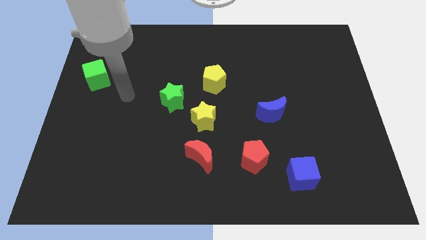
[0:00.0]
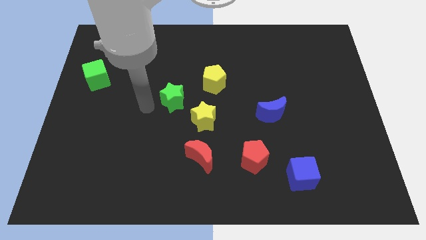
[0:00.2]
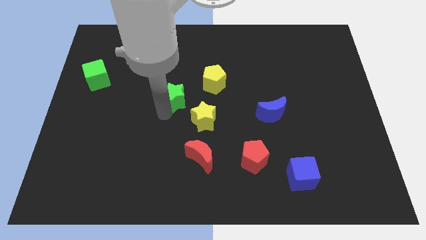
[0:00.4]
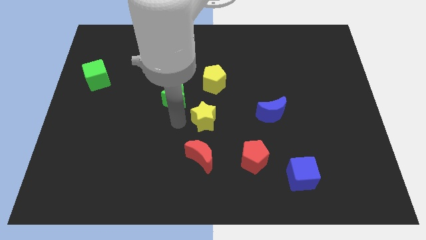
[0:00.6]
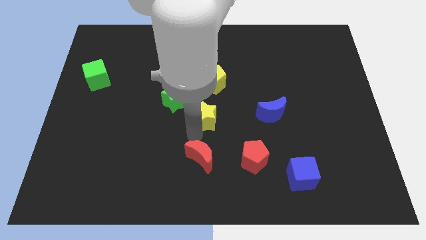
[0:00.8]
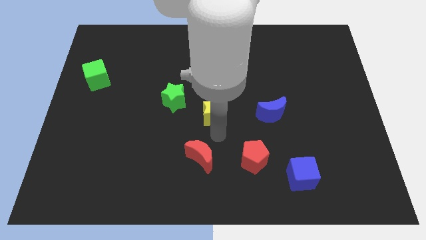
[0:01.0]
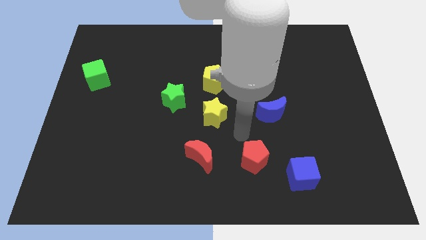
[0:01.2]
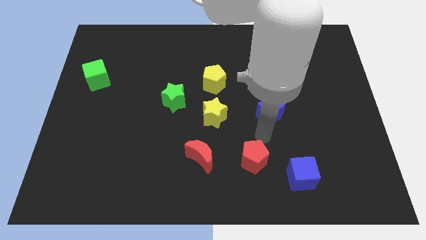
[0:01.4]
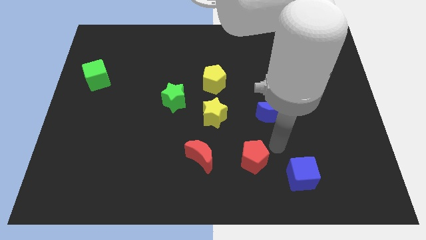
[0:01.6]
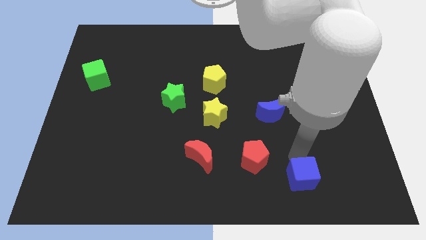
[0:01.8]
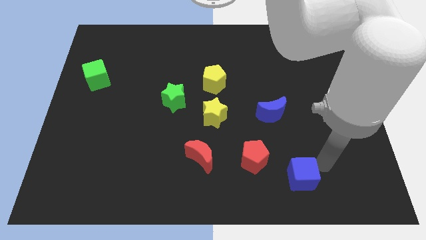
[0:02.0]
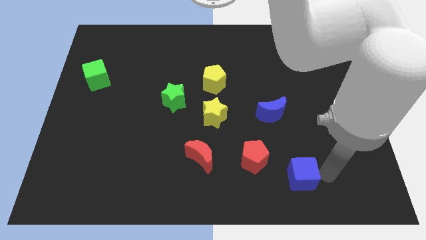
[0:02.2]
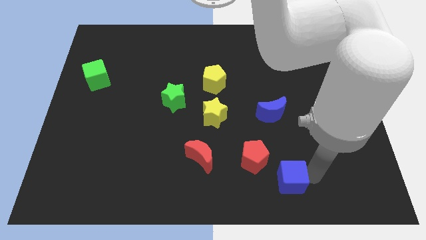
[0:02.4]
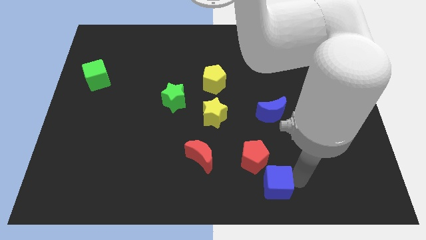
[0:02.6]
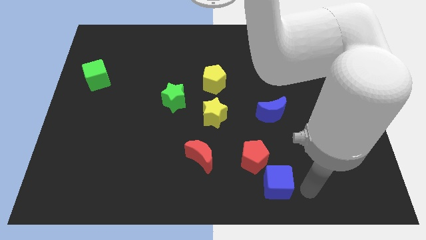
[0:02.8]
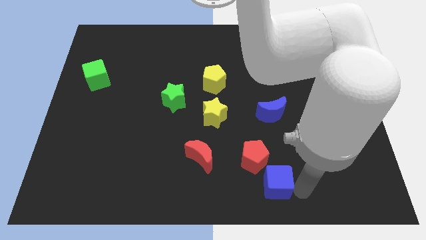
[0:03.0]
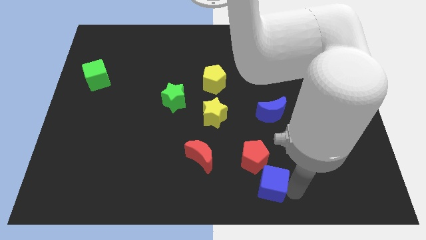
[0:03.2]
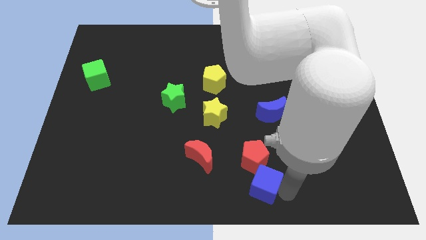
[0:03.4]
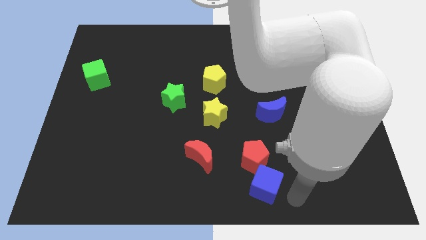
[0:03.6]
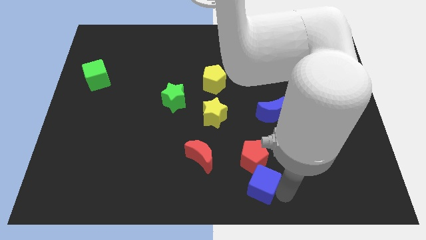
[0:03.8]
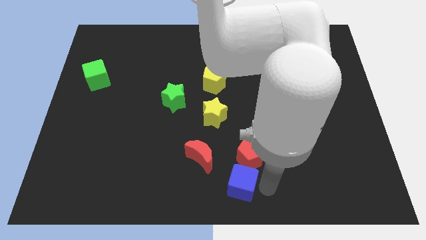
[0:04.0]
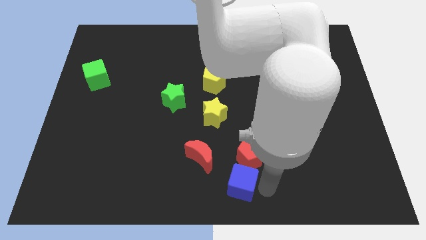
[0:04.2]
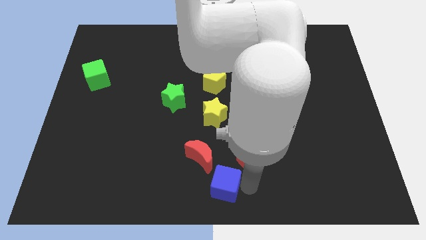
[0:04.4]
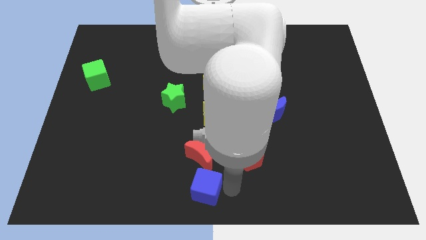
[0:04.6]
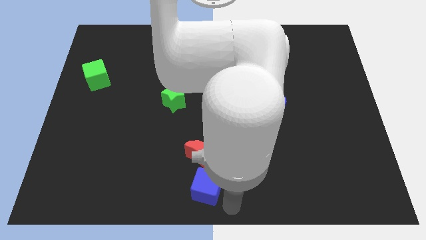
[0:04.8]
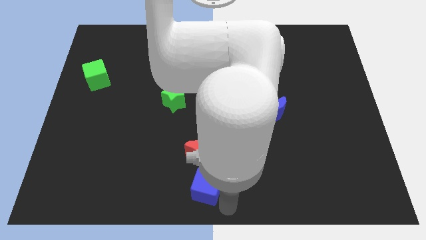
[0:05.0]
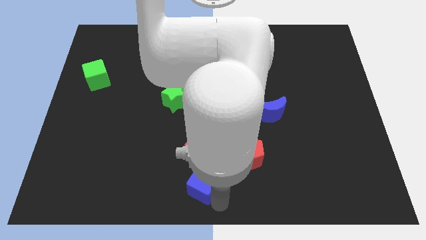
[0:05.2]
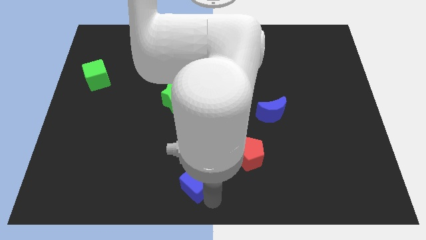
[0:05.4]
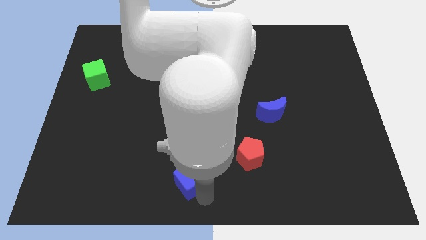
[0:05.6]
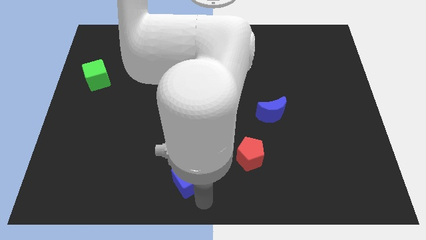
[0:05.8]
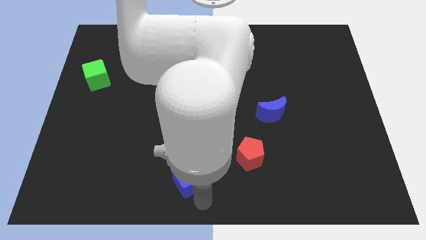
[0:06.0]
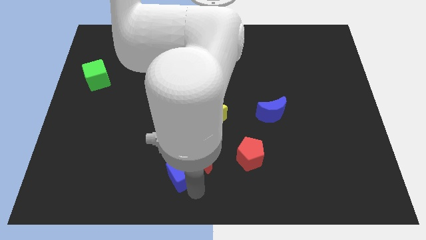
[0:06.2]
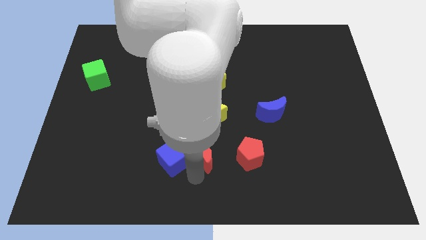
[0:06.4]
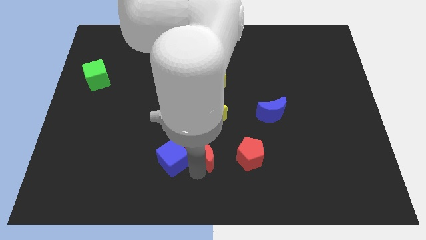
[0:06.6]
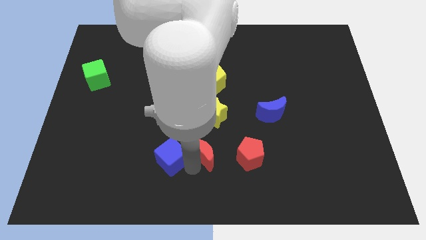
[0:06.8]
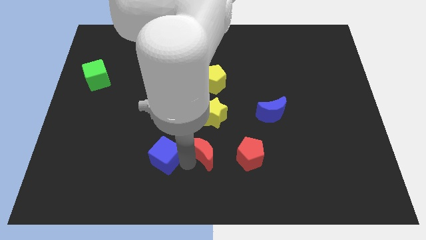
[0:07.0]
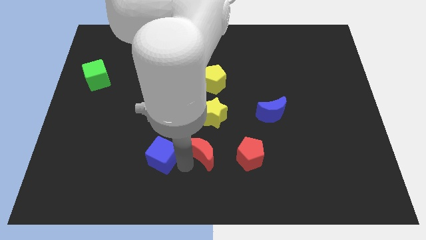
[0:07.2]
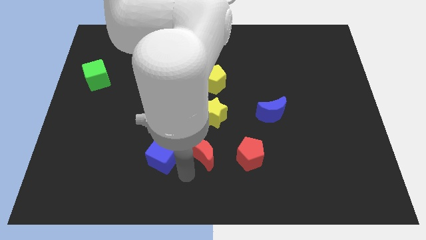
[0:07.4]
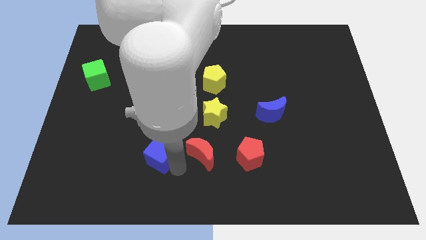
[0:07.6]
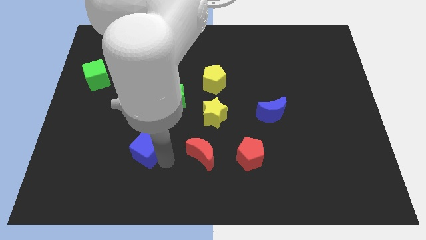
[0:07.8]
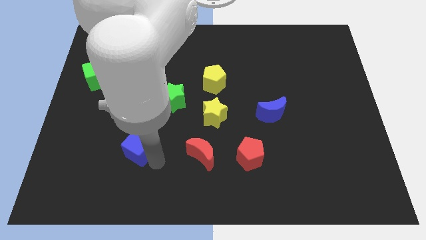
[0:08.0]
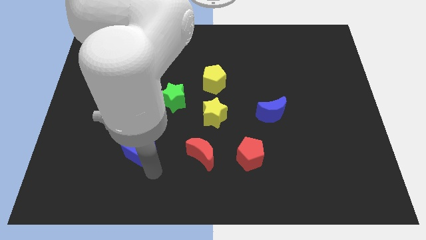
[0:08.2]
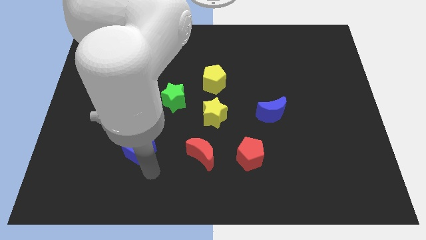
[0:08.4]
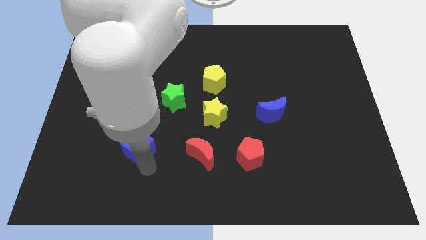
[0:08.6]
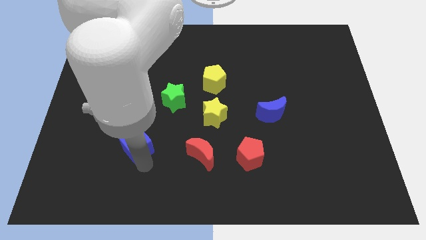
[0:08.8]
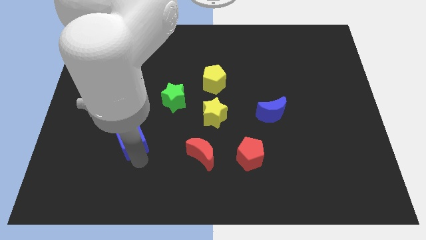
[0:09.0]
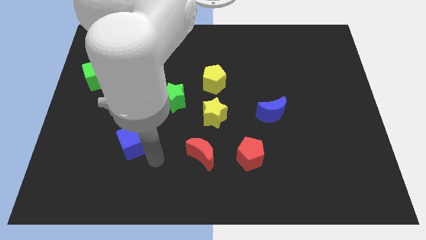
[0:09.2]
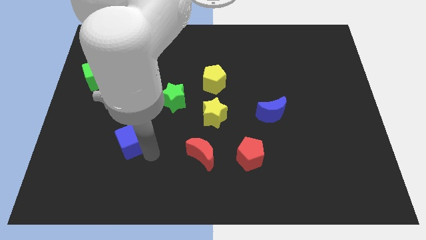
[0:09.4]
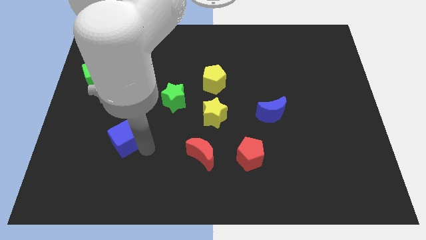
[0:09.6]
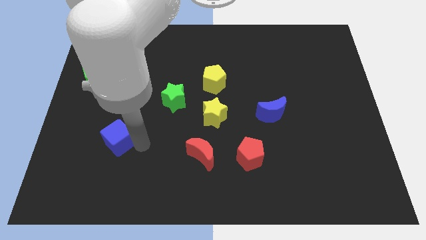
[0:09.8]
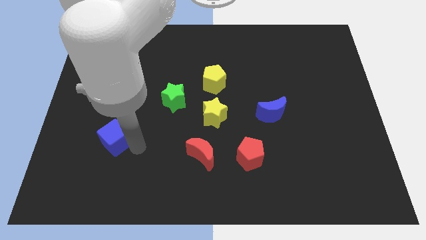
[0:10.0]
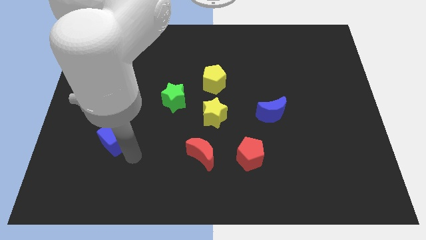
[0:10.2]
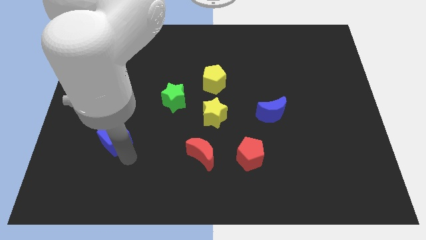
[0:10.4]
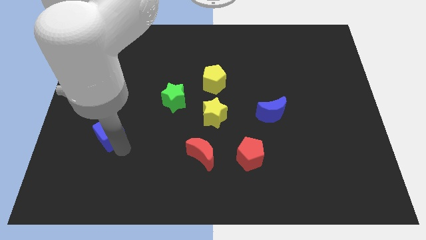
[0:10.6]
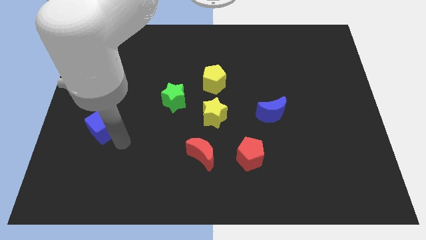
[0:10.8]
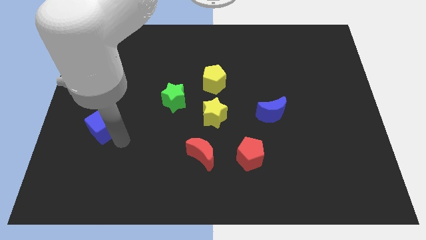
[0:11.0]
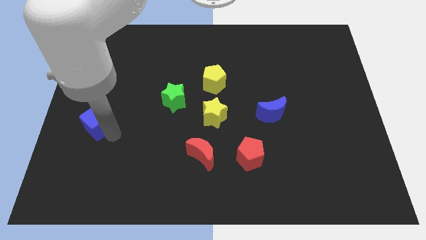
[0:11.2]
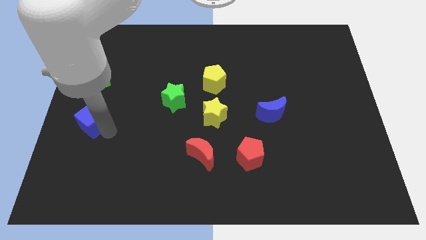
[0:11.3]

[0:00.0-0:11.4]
move the blue cube to the center left

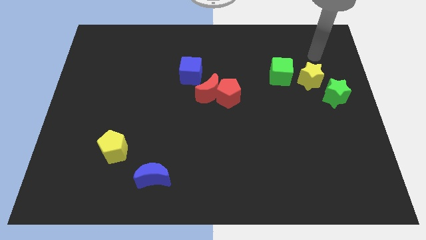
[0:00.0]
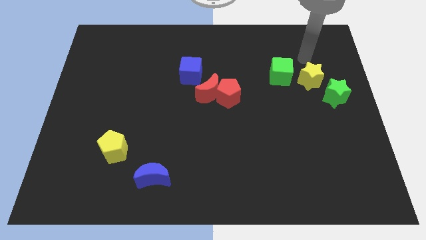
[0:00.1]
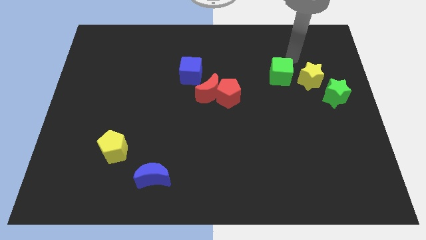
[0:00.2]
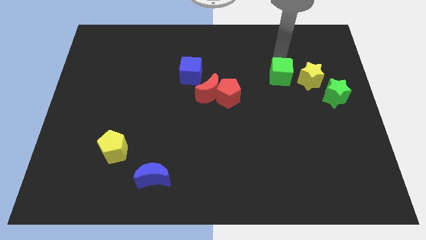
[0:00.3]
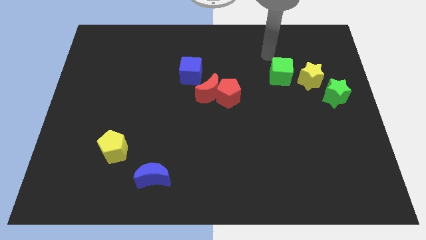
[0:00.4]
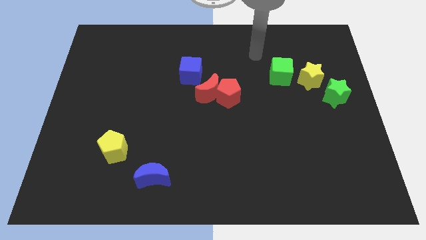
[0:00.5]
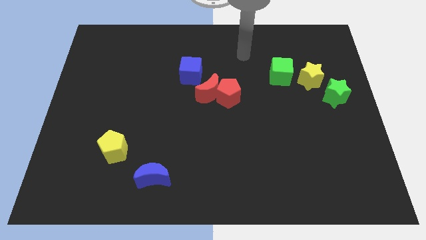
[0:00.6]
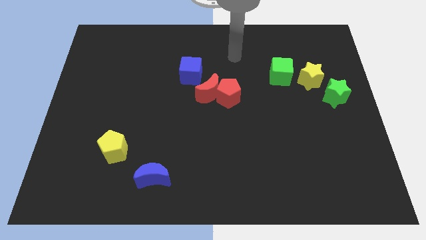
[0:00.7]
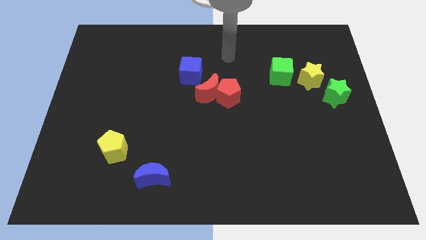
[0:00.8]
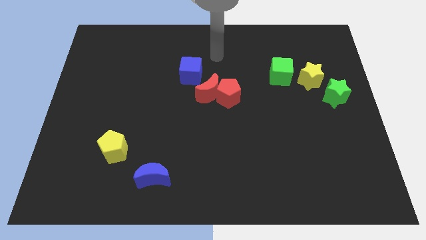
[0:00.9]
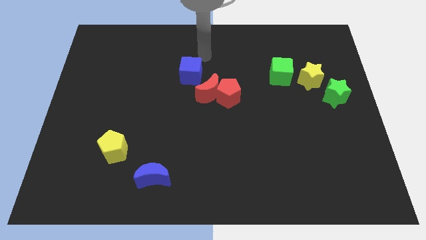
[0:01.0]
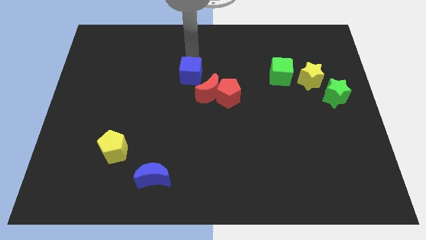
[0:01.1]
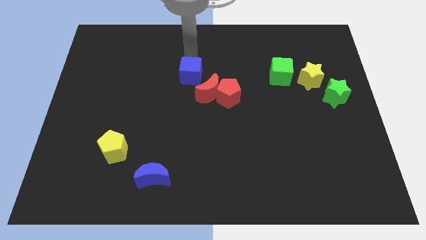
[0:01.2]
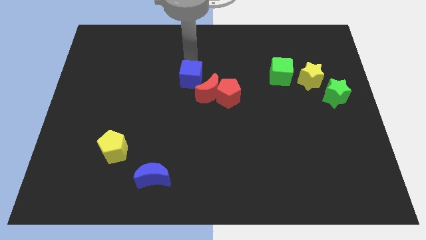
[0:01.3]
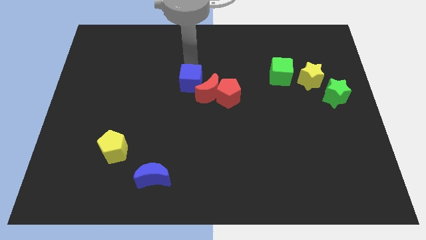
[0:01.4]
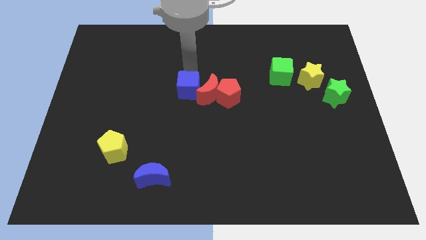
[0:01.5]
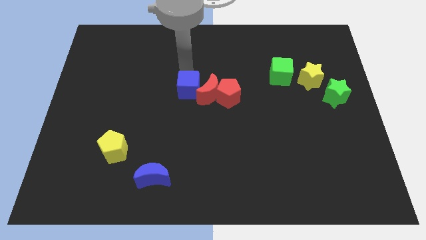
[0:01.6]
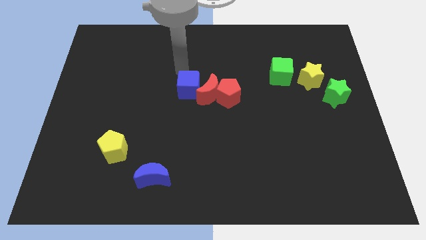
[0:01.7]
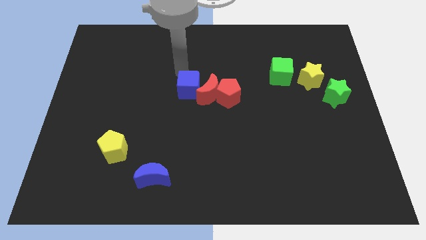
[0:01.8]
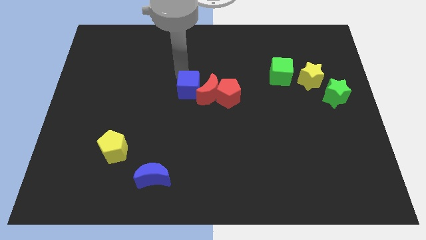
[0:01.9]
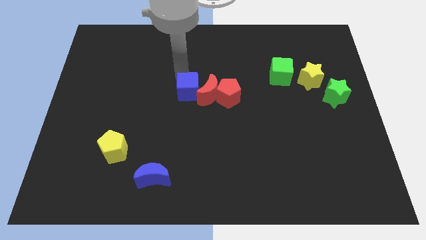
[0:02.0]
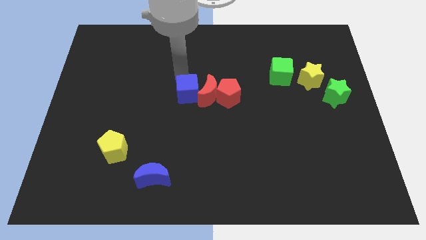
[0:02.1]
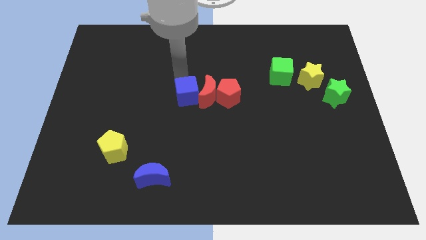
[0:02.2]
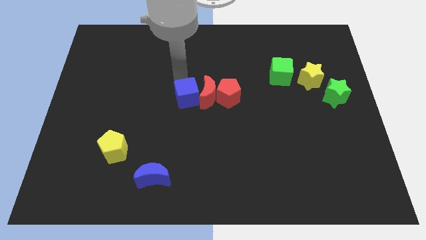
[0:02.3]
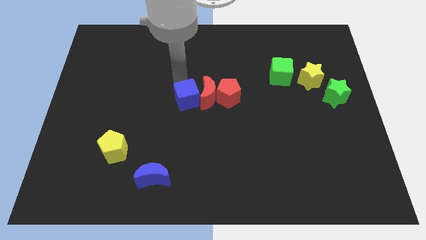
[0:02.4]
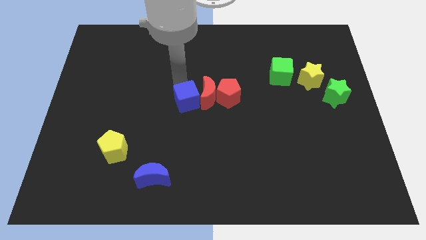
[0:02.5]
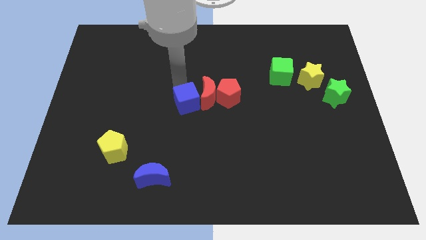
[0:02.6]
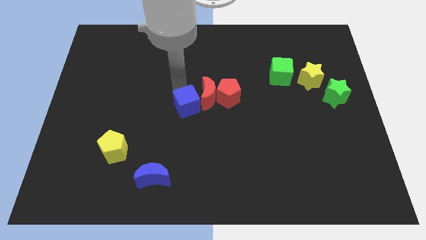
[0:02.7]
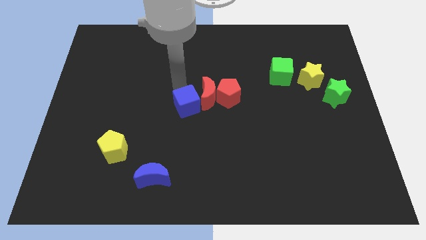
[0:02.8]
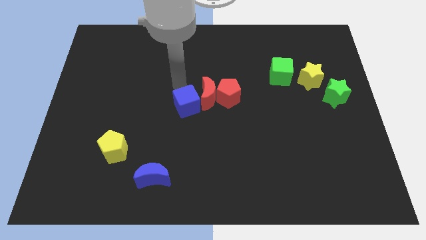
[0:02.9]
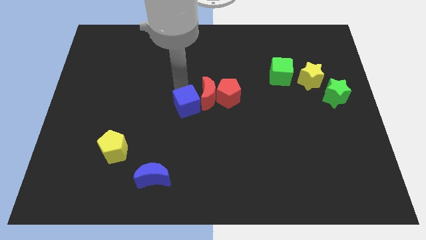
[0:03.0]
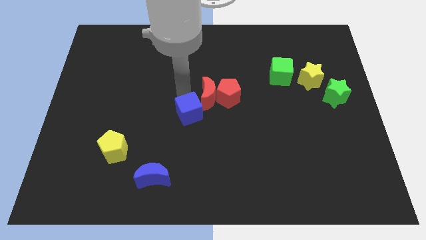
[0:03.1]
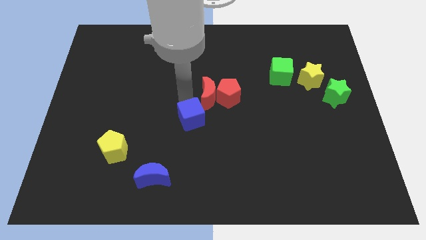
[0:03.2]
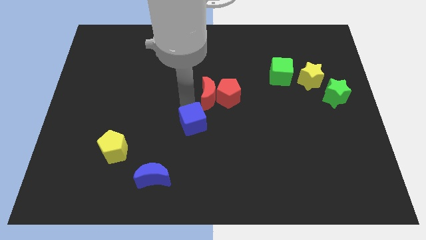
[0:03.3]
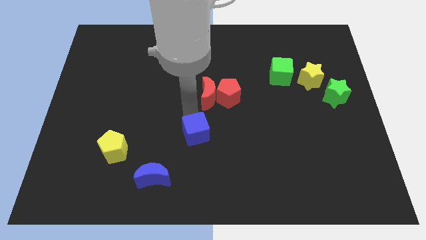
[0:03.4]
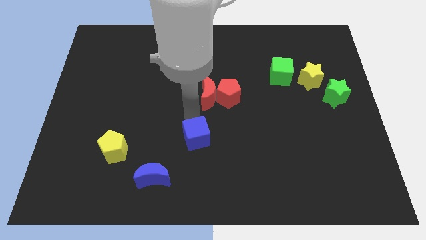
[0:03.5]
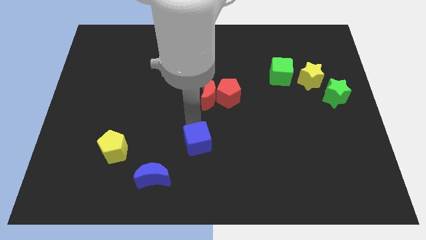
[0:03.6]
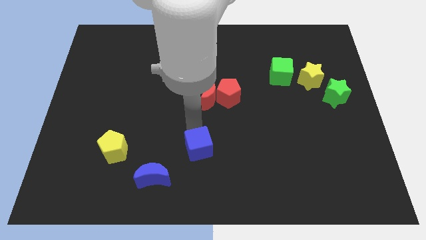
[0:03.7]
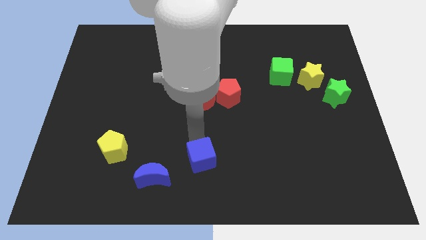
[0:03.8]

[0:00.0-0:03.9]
move the blue cube to the bottom
